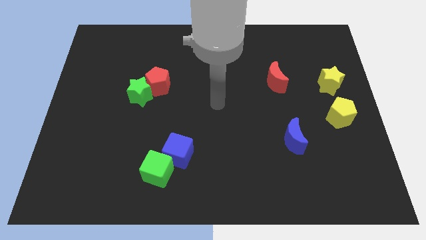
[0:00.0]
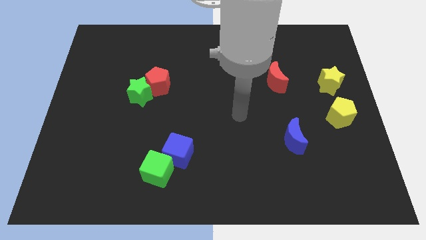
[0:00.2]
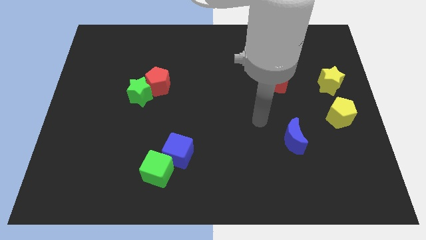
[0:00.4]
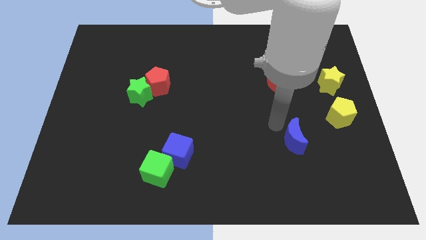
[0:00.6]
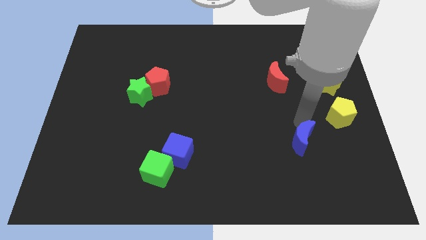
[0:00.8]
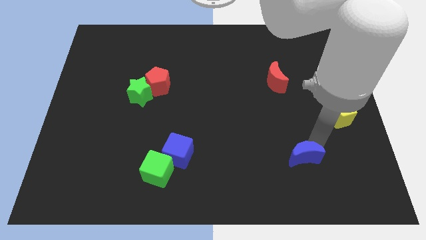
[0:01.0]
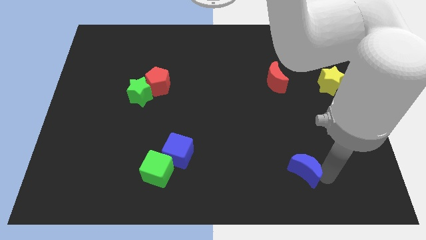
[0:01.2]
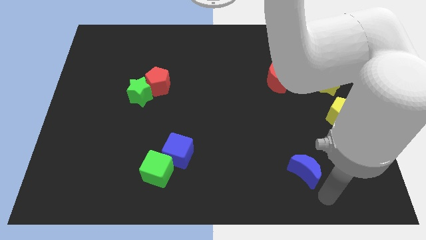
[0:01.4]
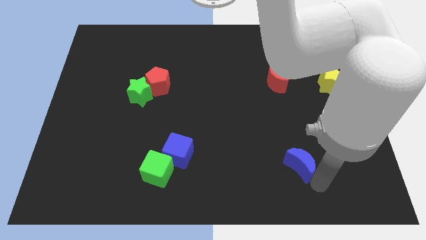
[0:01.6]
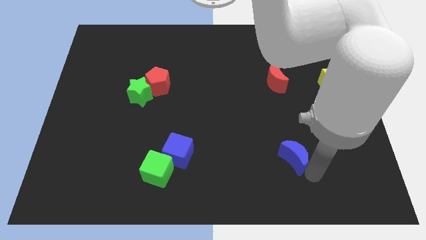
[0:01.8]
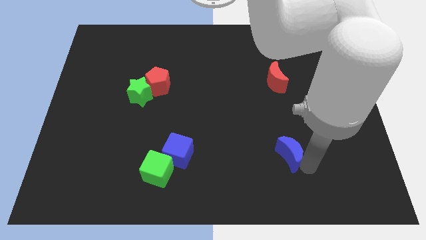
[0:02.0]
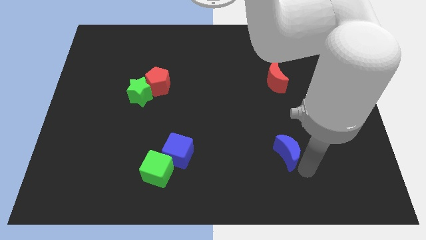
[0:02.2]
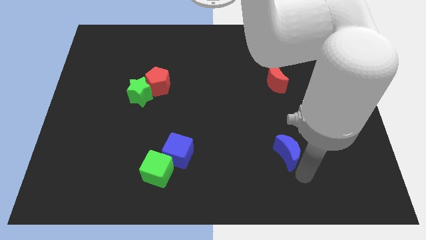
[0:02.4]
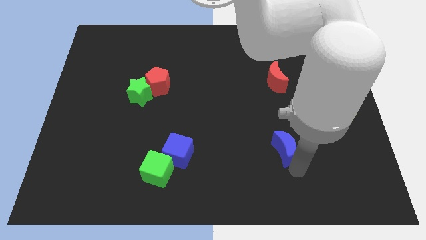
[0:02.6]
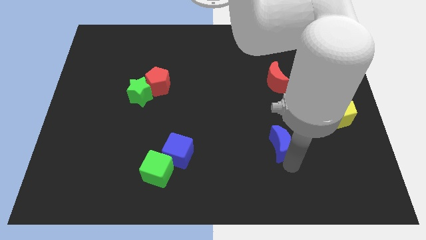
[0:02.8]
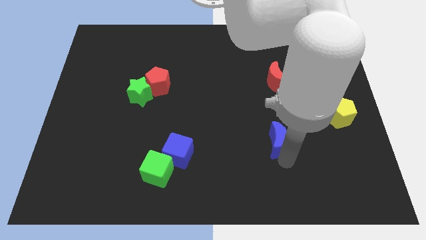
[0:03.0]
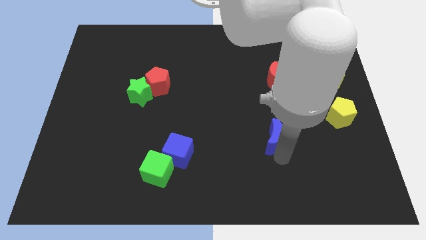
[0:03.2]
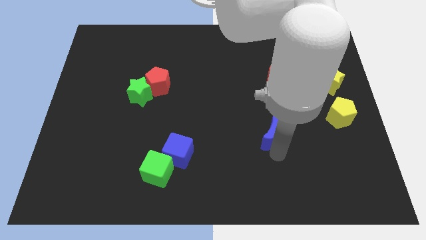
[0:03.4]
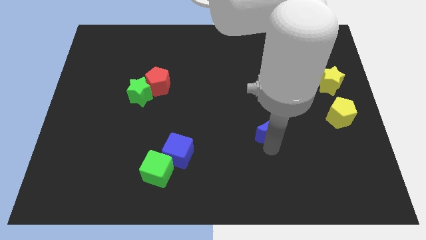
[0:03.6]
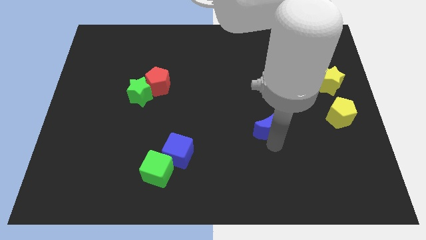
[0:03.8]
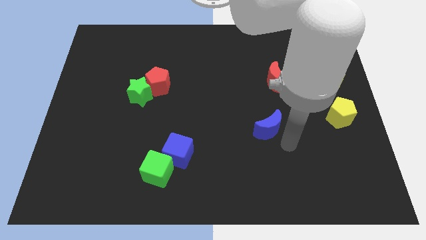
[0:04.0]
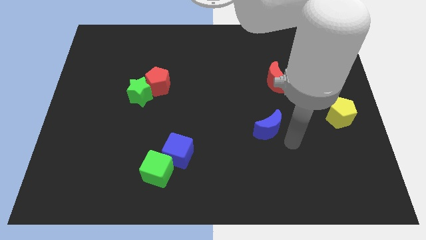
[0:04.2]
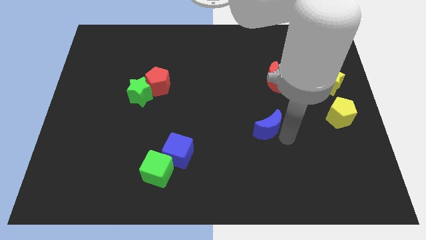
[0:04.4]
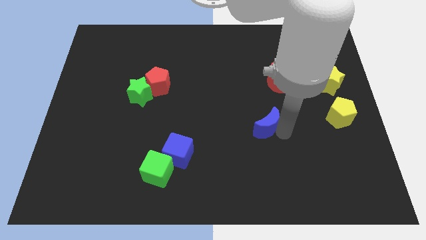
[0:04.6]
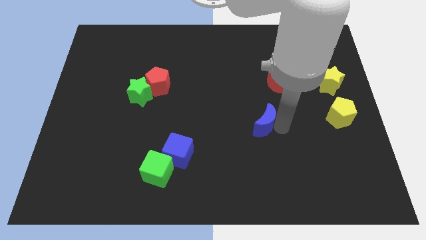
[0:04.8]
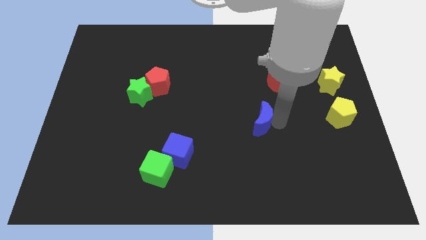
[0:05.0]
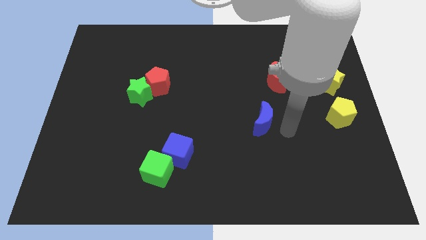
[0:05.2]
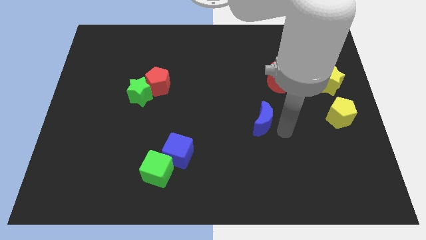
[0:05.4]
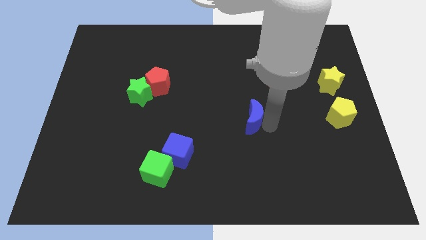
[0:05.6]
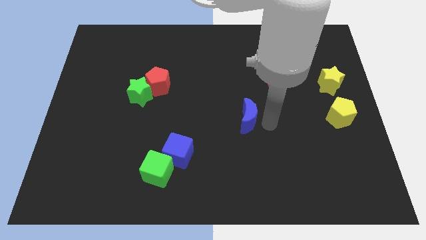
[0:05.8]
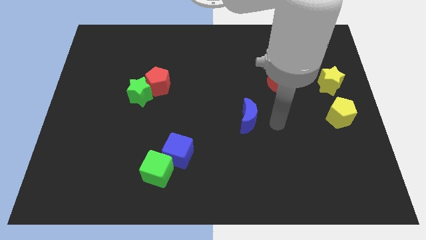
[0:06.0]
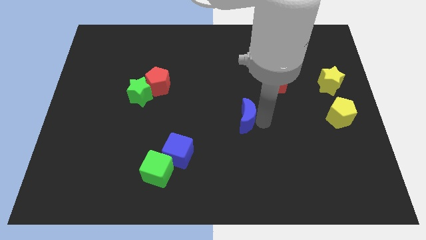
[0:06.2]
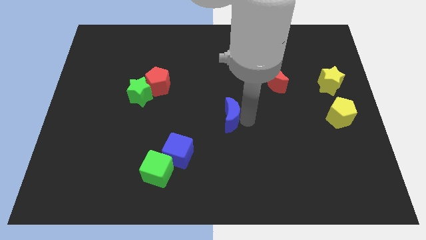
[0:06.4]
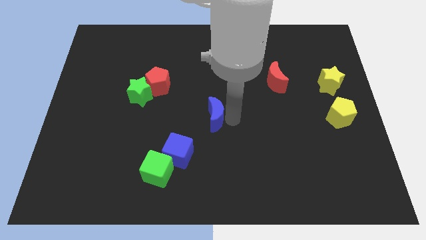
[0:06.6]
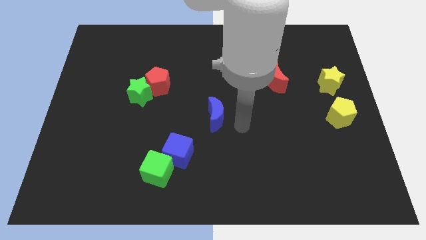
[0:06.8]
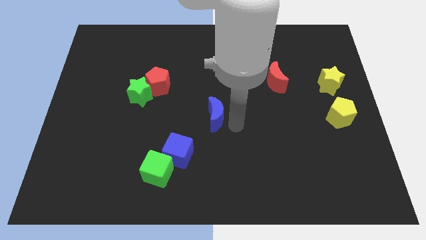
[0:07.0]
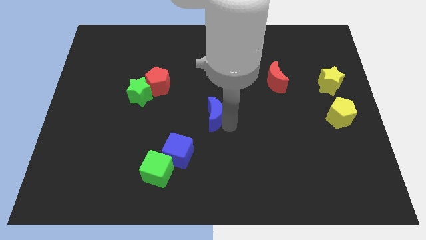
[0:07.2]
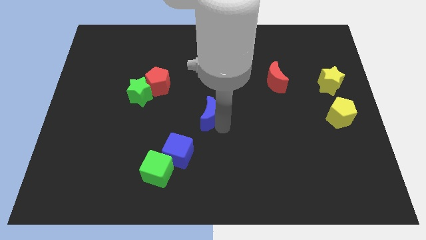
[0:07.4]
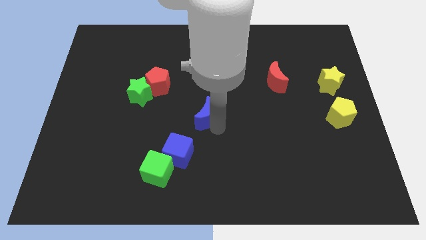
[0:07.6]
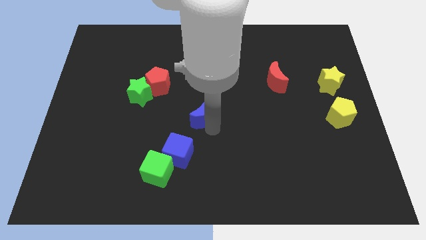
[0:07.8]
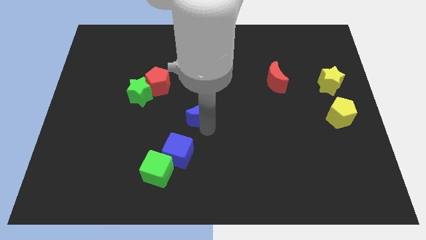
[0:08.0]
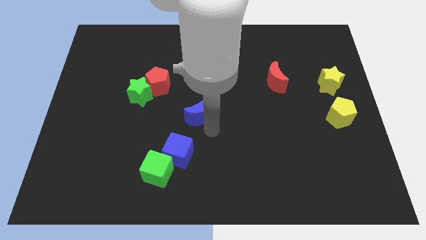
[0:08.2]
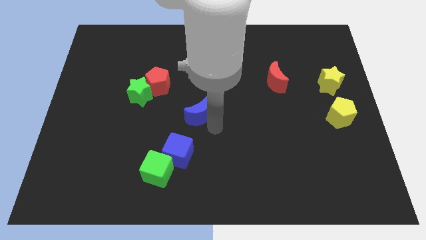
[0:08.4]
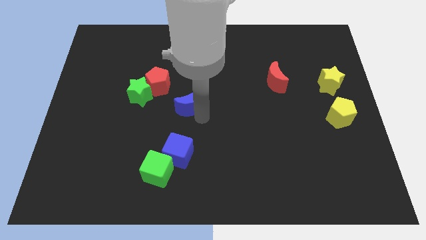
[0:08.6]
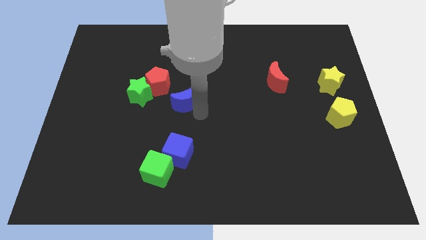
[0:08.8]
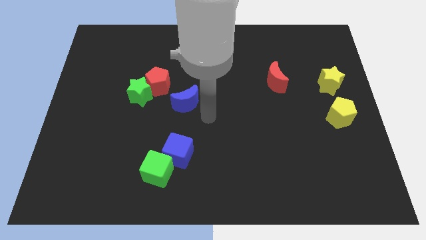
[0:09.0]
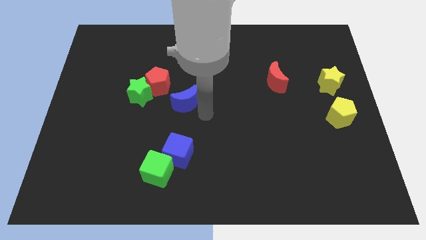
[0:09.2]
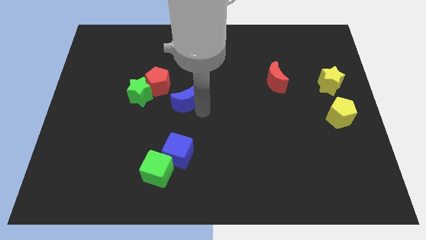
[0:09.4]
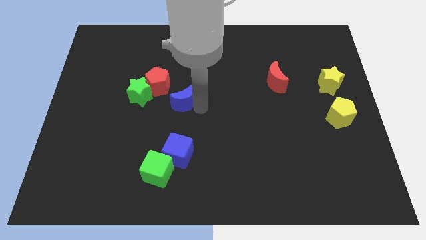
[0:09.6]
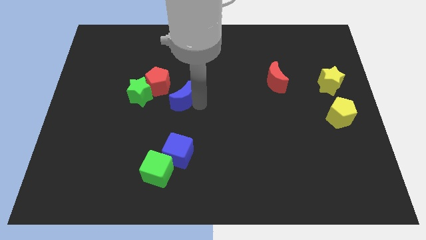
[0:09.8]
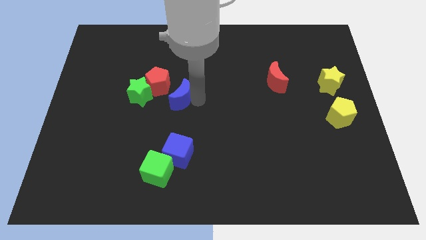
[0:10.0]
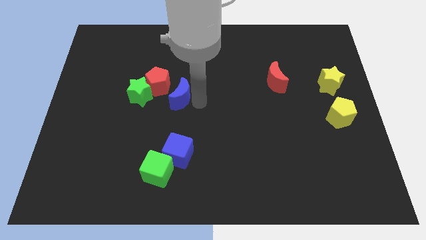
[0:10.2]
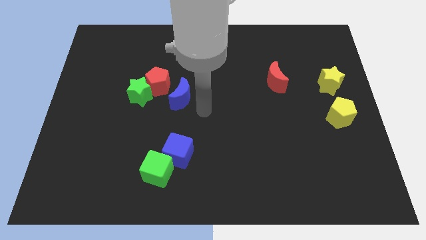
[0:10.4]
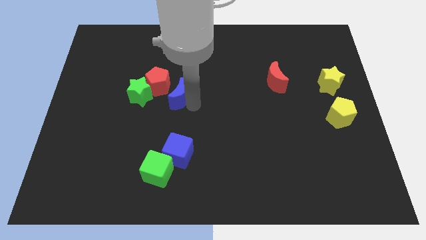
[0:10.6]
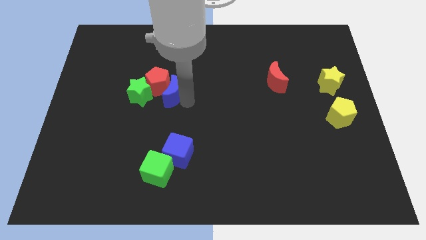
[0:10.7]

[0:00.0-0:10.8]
slide the blue moon towards the red pentagon

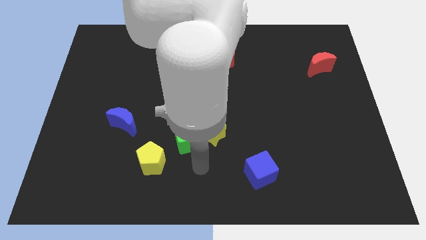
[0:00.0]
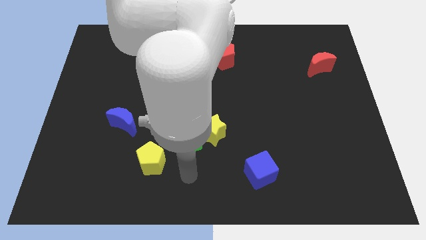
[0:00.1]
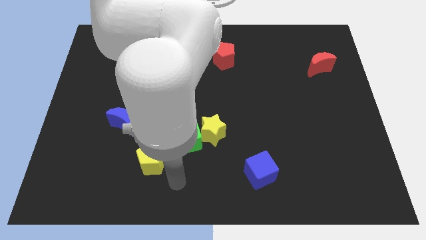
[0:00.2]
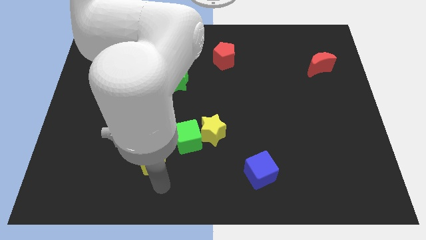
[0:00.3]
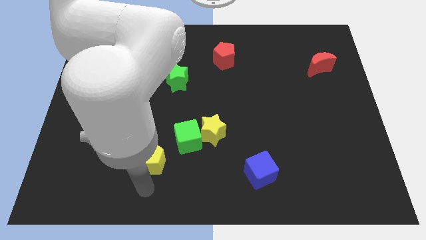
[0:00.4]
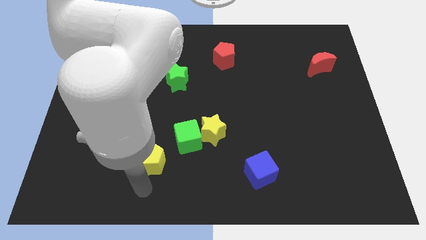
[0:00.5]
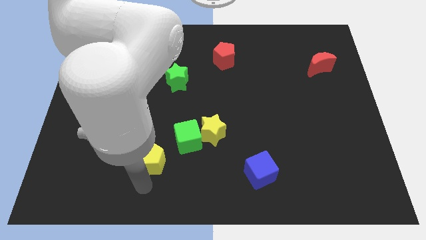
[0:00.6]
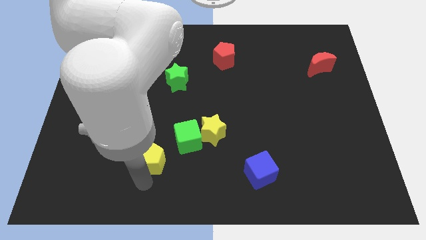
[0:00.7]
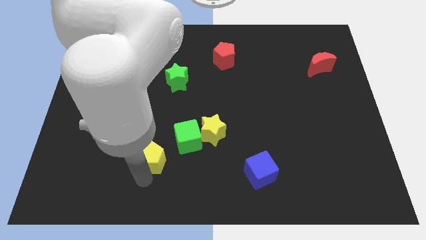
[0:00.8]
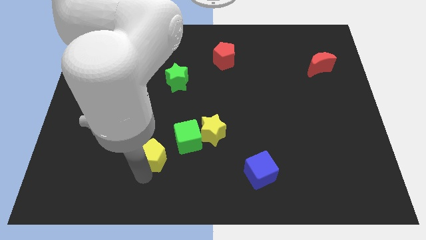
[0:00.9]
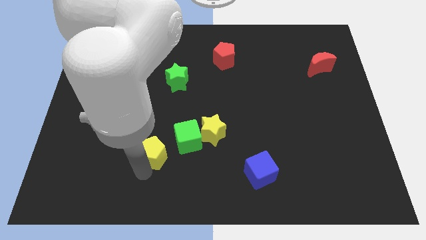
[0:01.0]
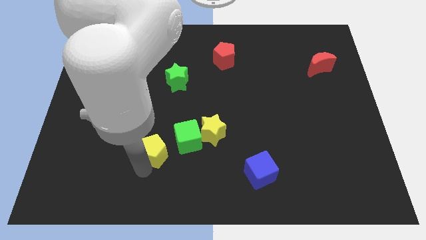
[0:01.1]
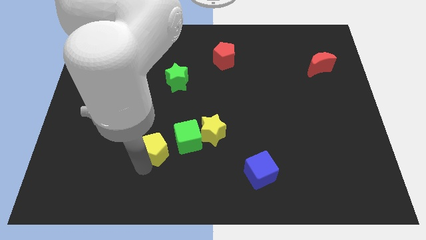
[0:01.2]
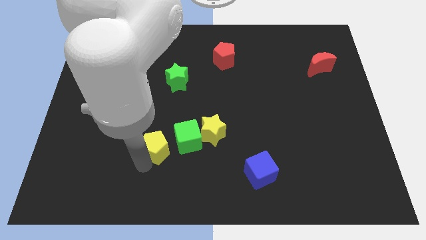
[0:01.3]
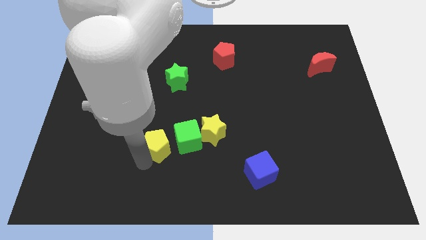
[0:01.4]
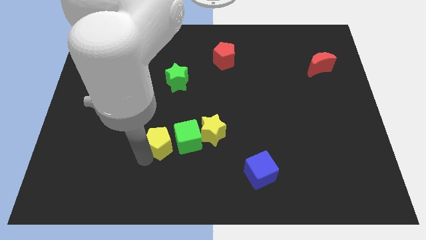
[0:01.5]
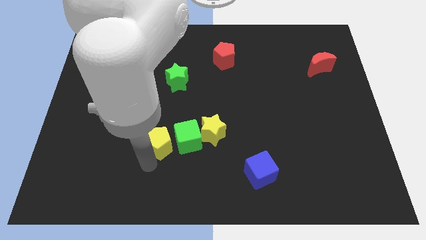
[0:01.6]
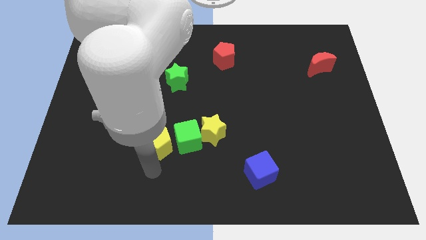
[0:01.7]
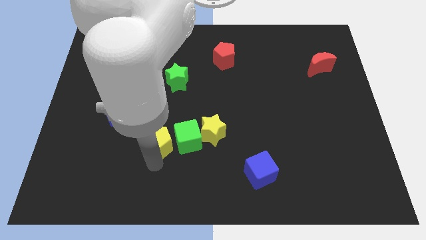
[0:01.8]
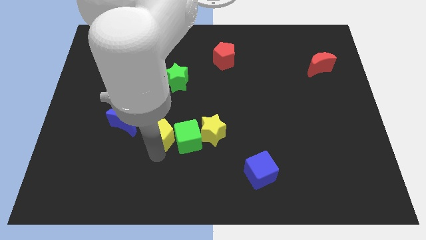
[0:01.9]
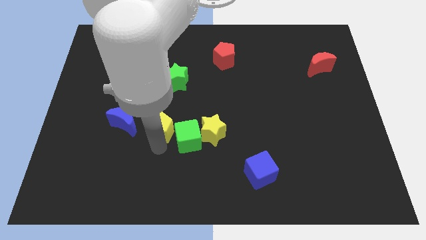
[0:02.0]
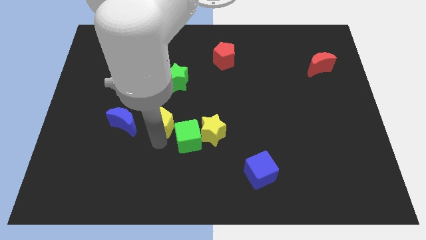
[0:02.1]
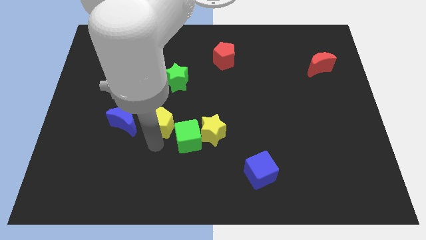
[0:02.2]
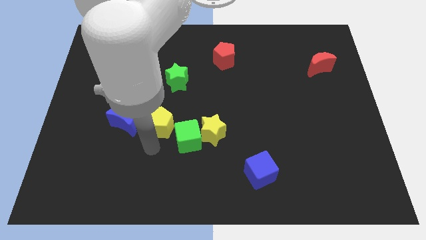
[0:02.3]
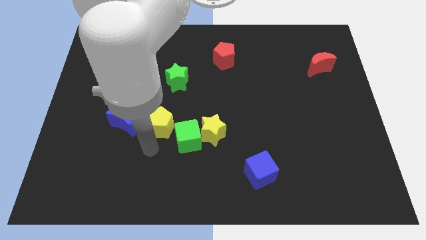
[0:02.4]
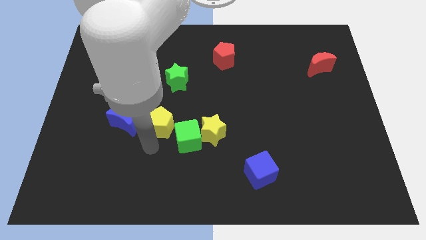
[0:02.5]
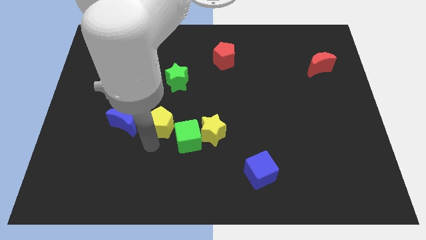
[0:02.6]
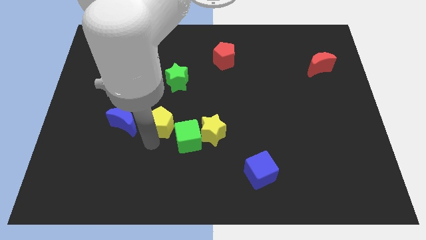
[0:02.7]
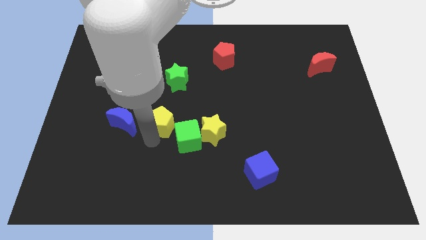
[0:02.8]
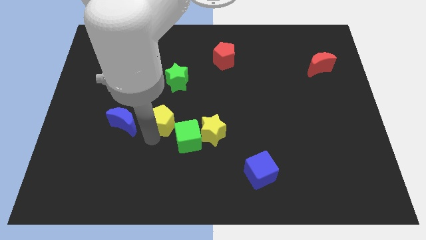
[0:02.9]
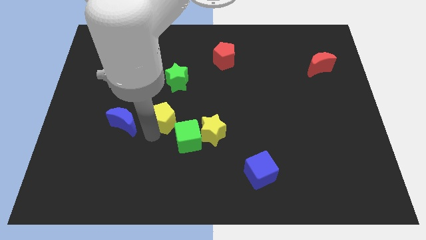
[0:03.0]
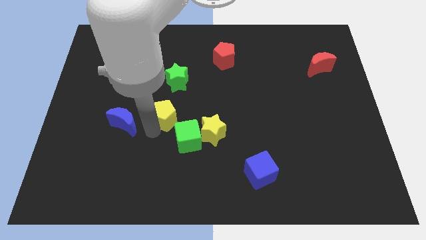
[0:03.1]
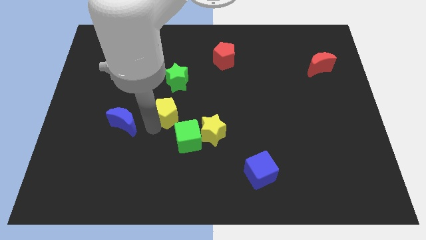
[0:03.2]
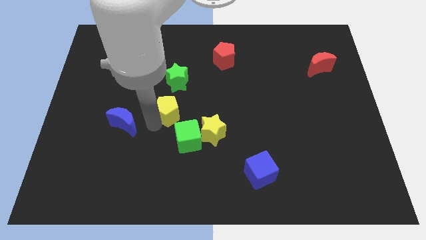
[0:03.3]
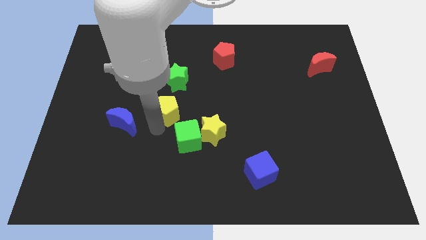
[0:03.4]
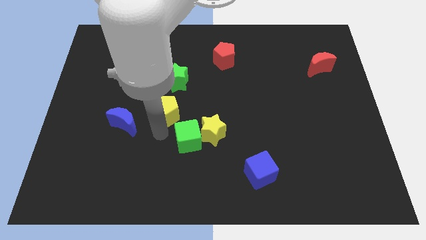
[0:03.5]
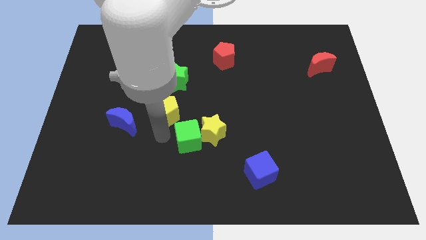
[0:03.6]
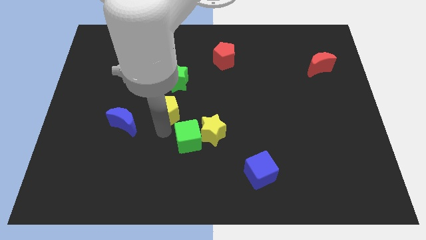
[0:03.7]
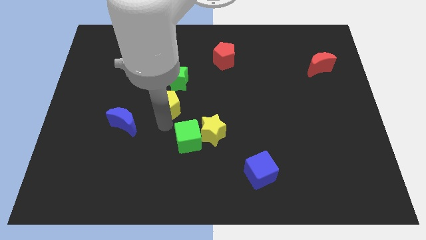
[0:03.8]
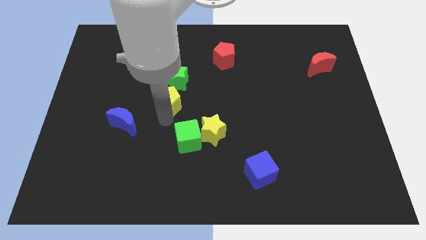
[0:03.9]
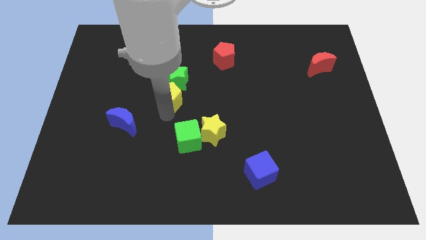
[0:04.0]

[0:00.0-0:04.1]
move the yellow pentagon next to the green star
